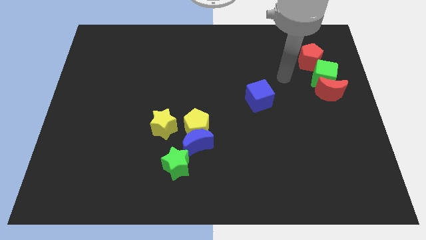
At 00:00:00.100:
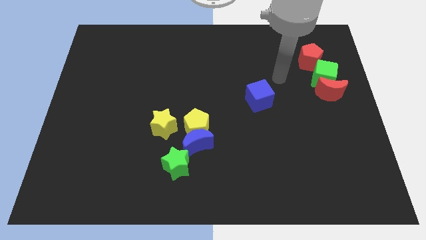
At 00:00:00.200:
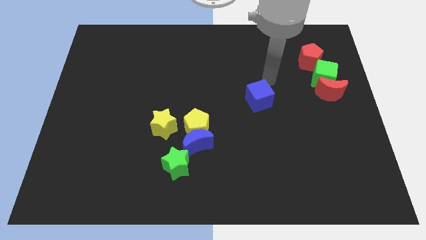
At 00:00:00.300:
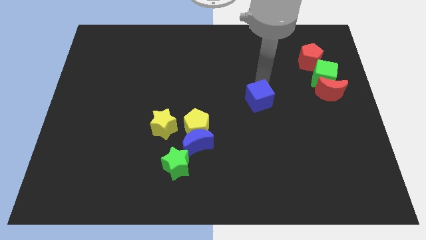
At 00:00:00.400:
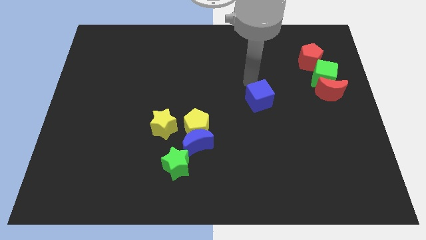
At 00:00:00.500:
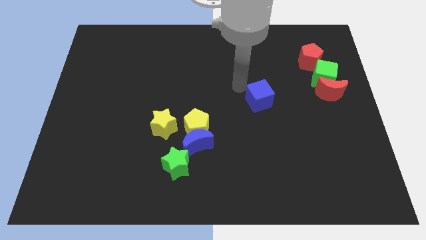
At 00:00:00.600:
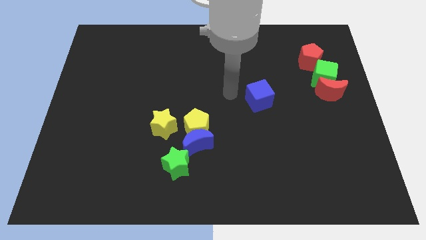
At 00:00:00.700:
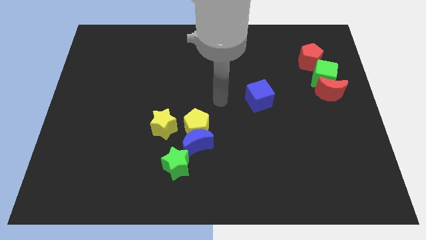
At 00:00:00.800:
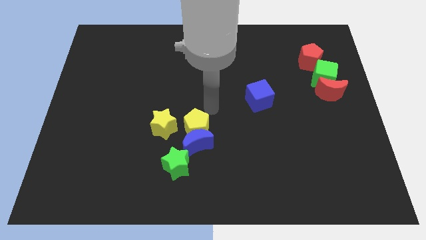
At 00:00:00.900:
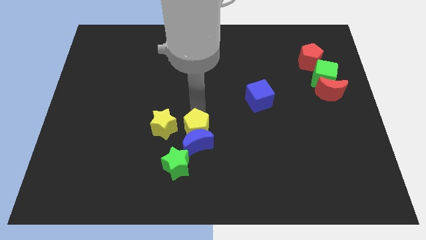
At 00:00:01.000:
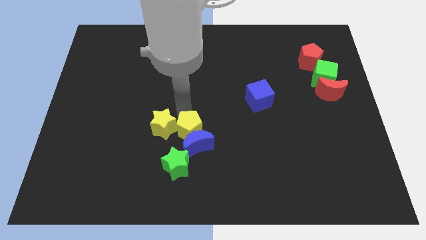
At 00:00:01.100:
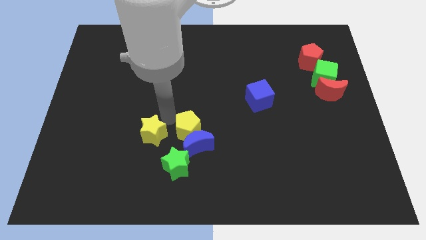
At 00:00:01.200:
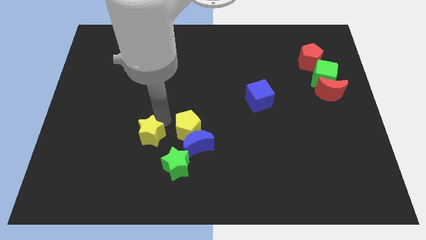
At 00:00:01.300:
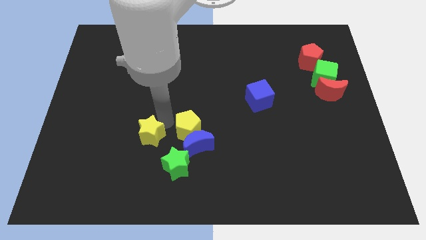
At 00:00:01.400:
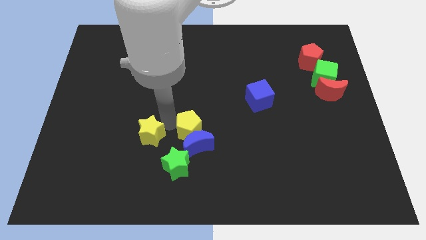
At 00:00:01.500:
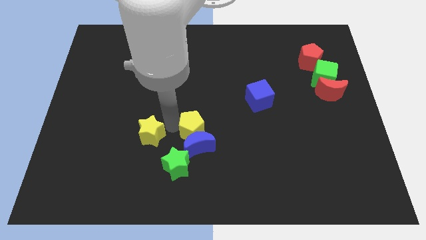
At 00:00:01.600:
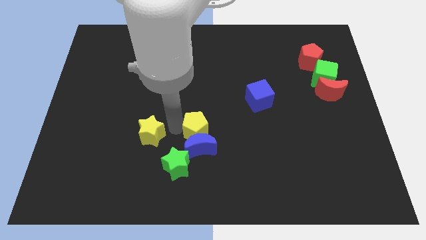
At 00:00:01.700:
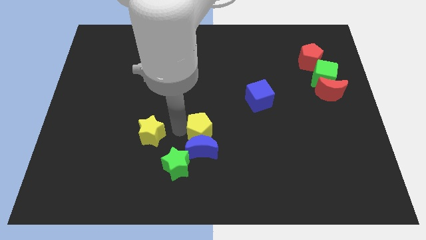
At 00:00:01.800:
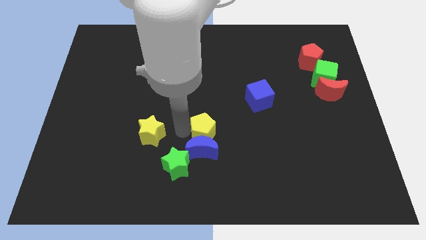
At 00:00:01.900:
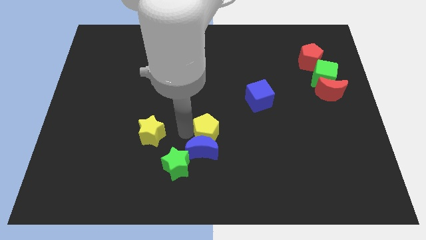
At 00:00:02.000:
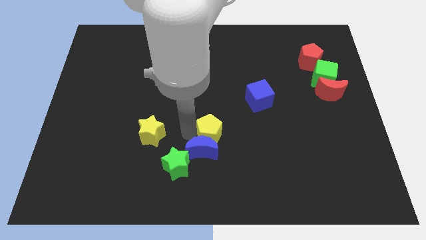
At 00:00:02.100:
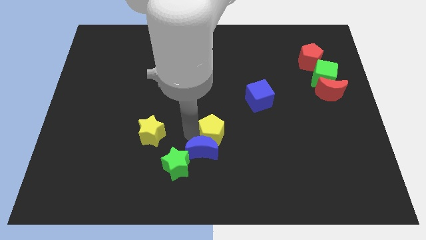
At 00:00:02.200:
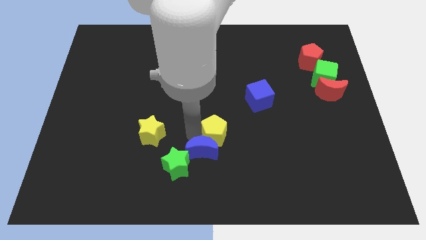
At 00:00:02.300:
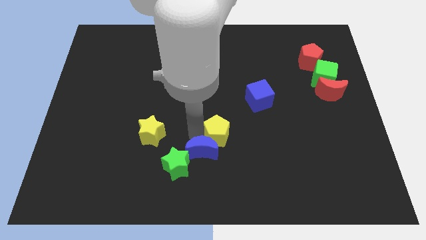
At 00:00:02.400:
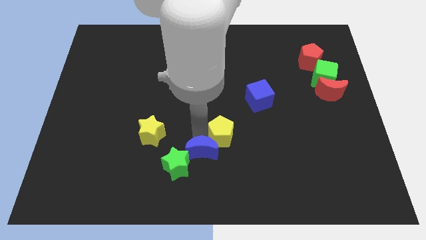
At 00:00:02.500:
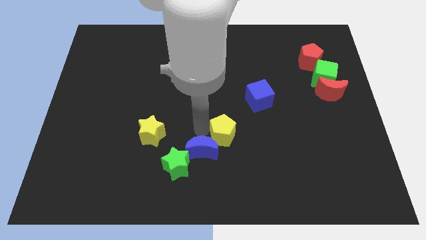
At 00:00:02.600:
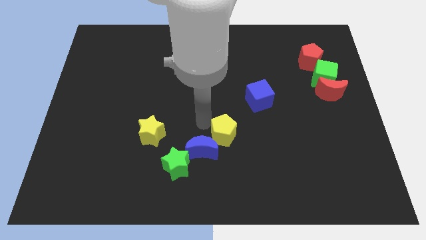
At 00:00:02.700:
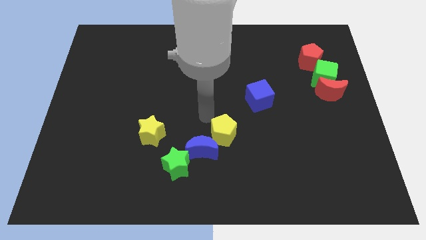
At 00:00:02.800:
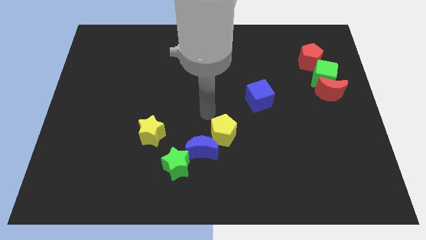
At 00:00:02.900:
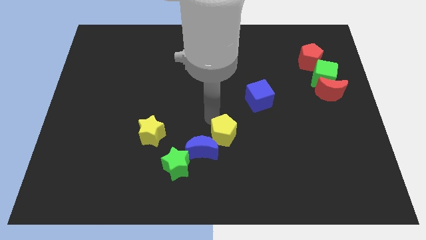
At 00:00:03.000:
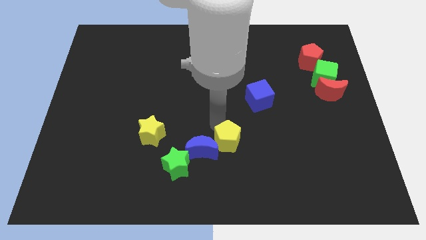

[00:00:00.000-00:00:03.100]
slide the yellow pentagon somewhat downwards and then to the right

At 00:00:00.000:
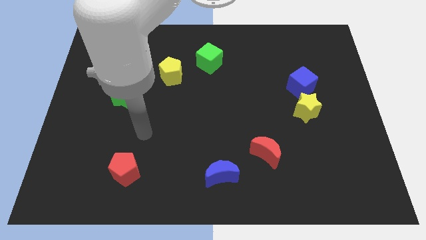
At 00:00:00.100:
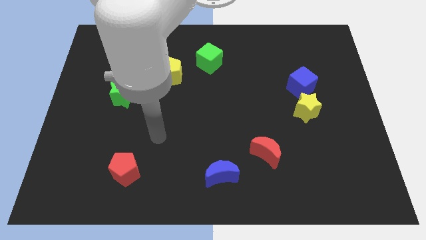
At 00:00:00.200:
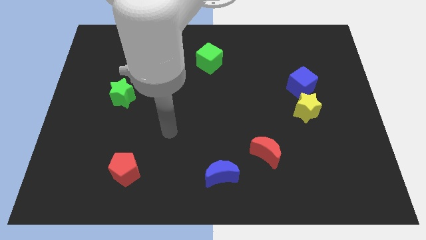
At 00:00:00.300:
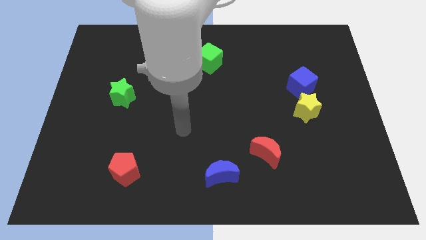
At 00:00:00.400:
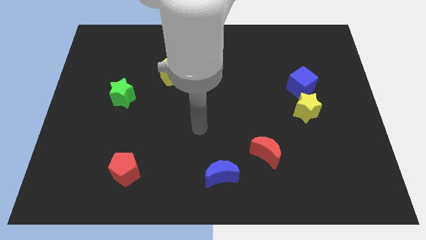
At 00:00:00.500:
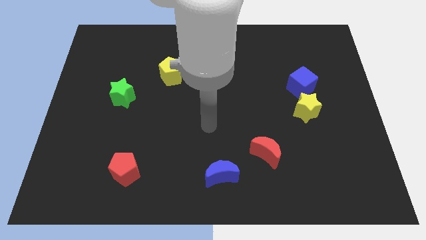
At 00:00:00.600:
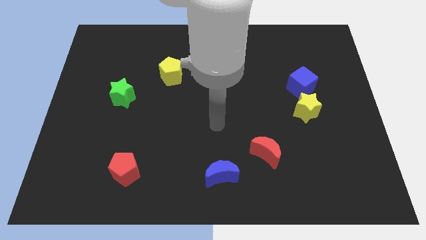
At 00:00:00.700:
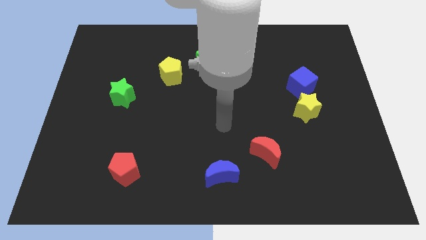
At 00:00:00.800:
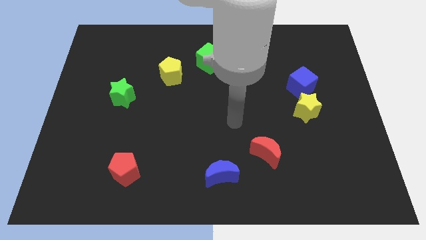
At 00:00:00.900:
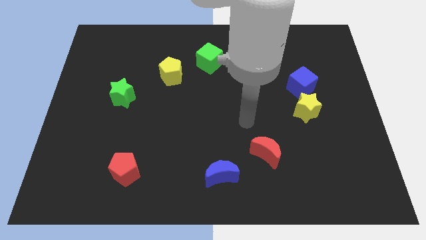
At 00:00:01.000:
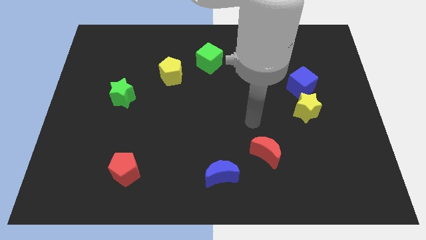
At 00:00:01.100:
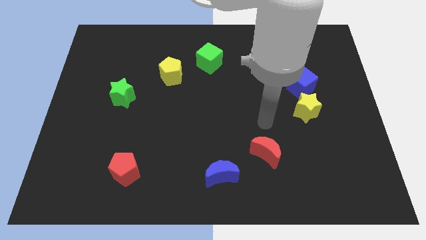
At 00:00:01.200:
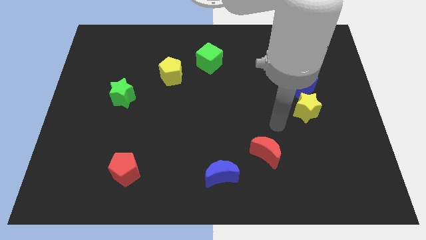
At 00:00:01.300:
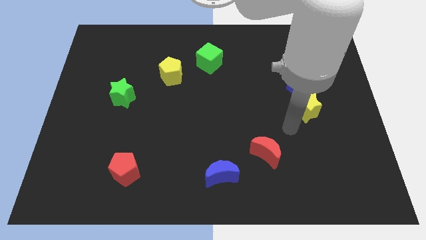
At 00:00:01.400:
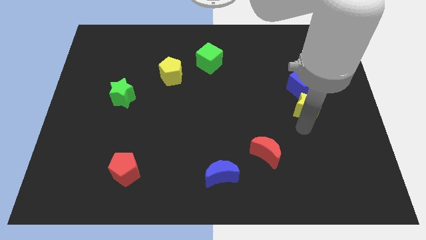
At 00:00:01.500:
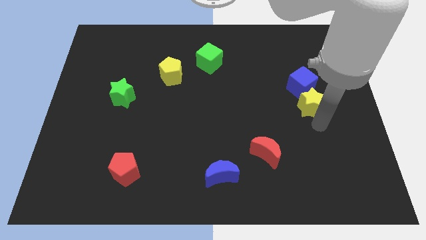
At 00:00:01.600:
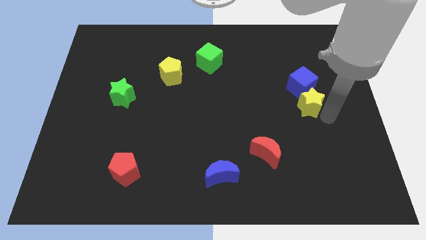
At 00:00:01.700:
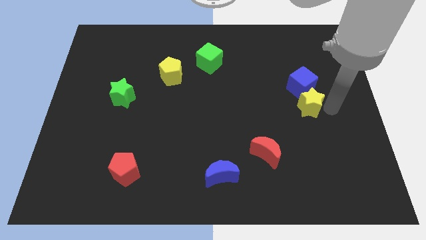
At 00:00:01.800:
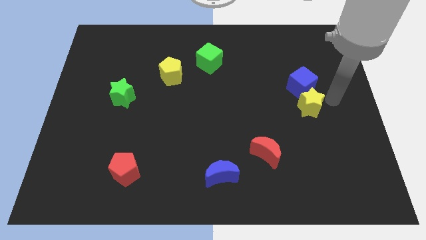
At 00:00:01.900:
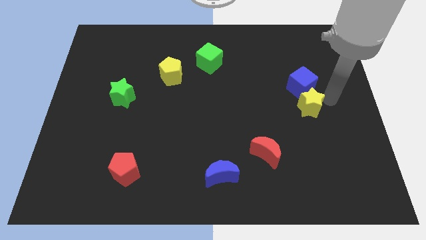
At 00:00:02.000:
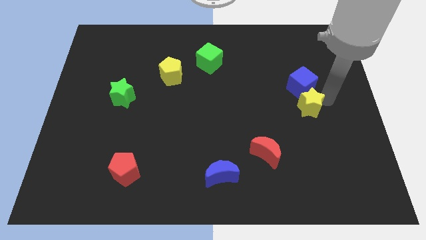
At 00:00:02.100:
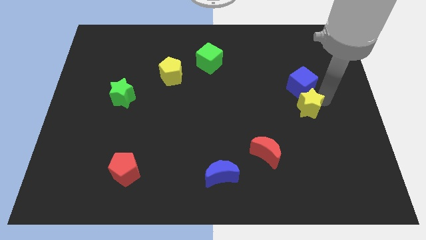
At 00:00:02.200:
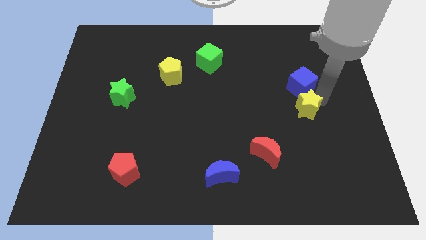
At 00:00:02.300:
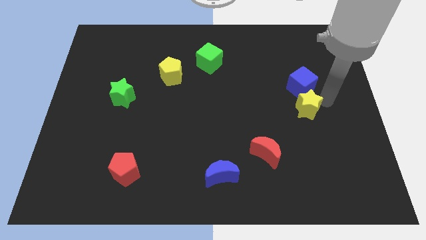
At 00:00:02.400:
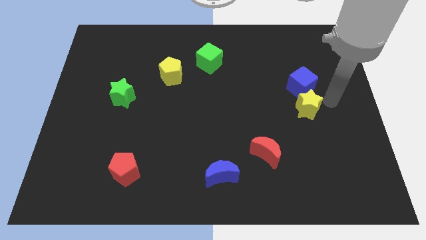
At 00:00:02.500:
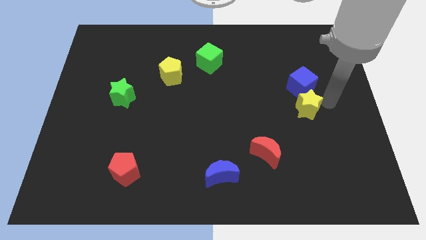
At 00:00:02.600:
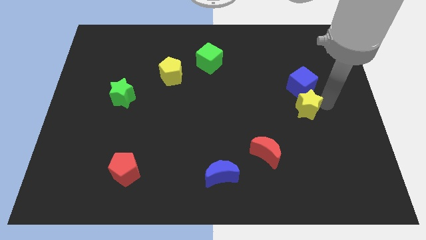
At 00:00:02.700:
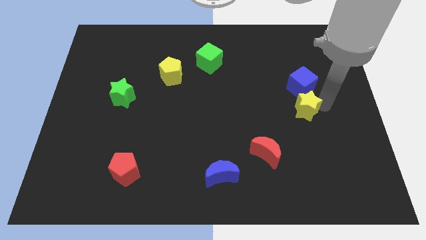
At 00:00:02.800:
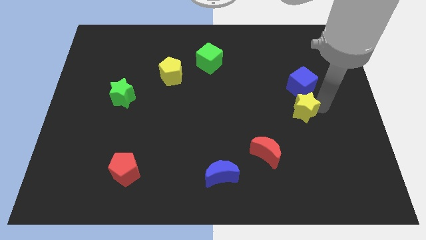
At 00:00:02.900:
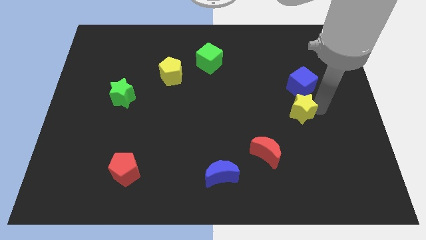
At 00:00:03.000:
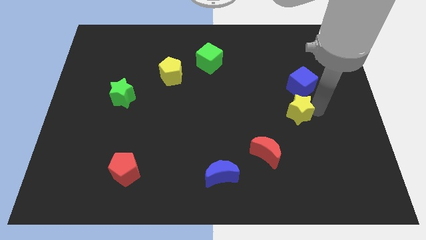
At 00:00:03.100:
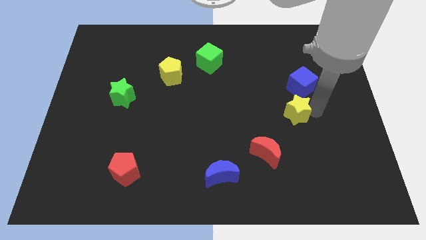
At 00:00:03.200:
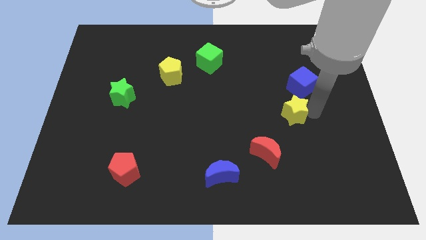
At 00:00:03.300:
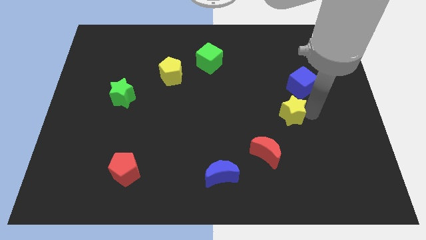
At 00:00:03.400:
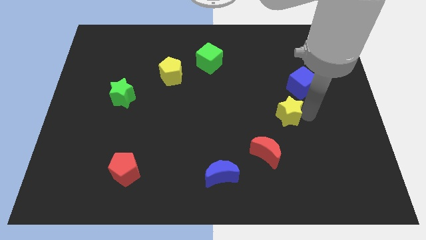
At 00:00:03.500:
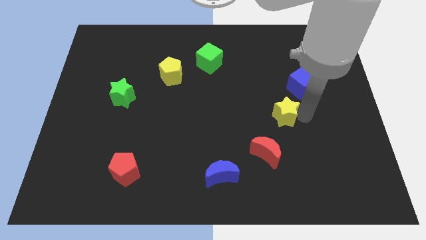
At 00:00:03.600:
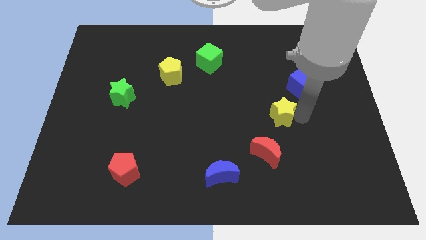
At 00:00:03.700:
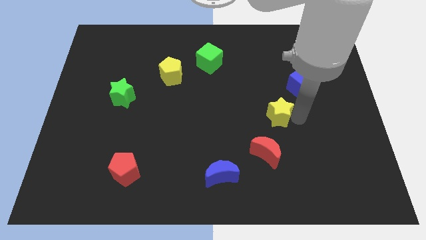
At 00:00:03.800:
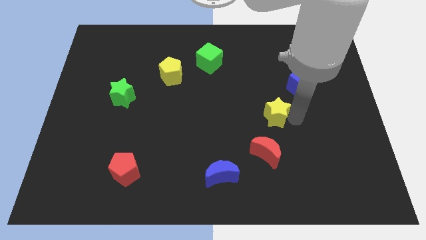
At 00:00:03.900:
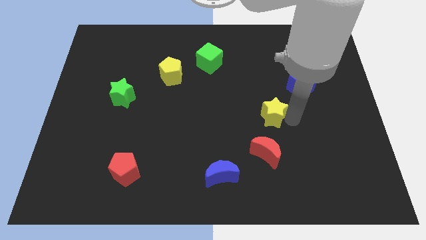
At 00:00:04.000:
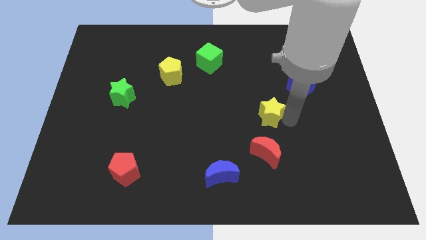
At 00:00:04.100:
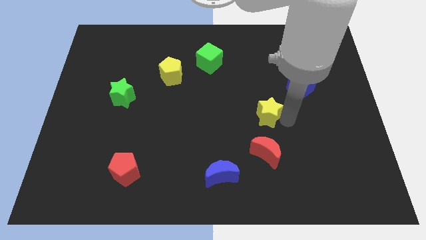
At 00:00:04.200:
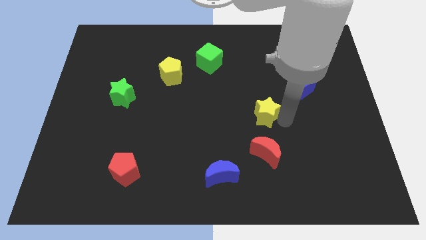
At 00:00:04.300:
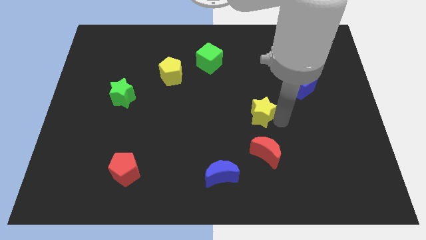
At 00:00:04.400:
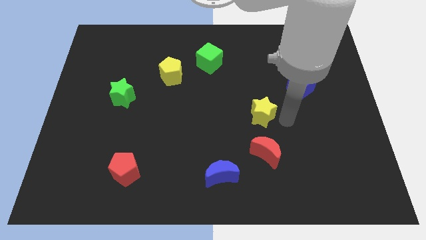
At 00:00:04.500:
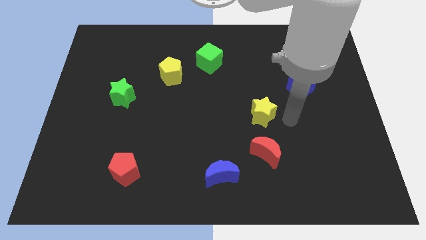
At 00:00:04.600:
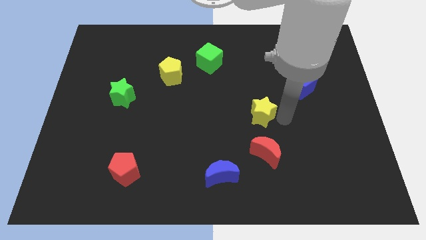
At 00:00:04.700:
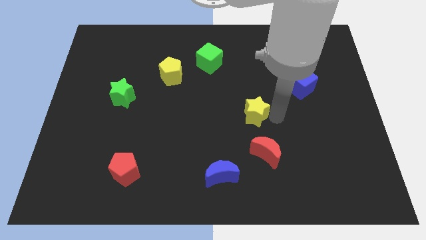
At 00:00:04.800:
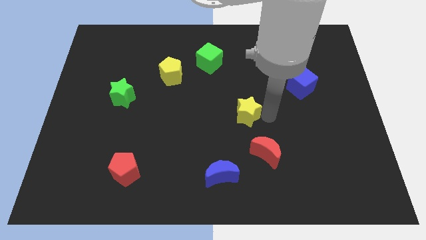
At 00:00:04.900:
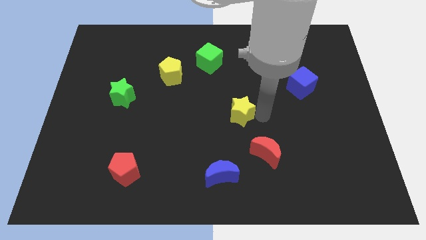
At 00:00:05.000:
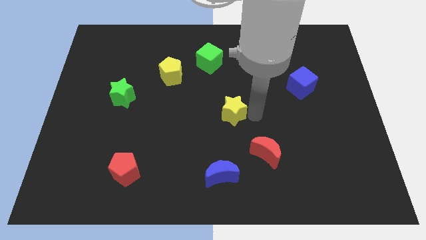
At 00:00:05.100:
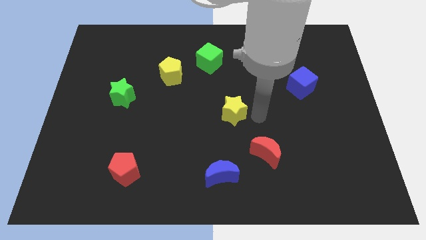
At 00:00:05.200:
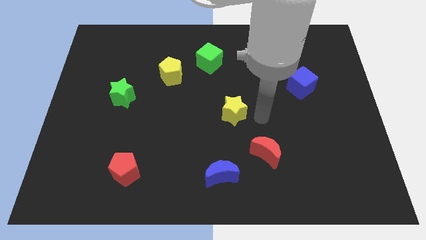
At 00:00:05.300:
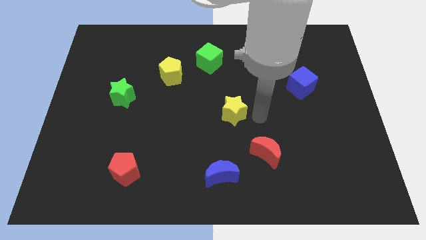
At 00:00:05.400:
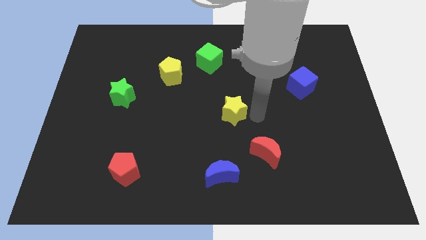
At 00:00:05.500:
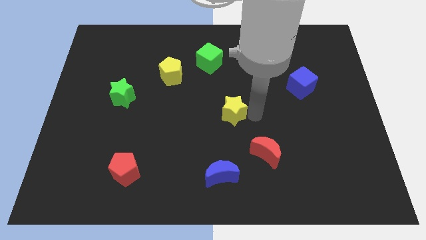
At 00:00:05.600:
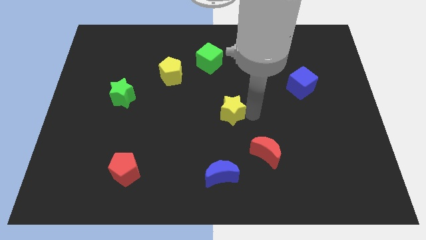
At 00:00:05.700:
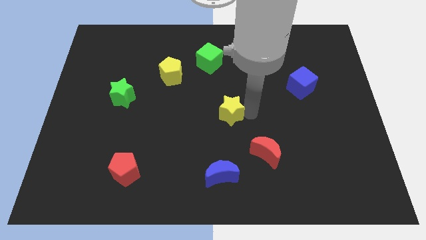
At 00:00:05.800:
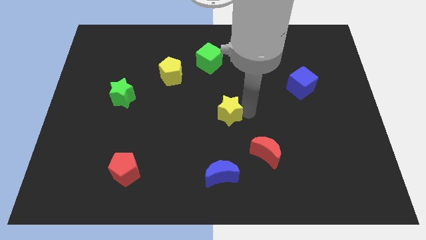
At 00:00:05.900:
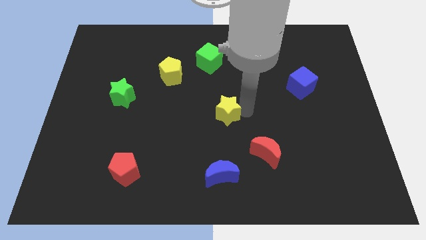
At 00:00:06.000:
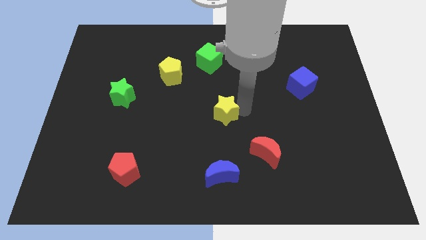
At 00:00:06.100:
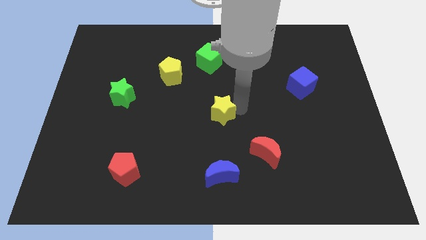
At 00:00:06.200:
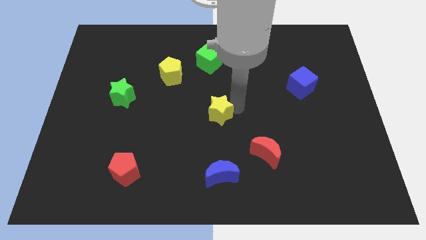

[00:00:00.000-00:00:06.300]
move the yellow star to the left
